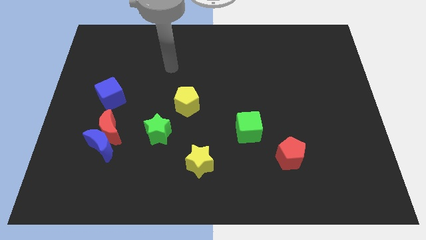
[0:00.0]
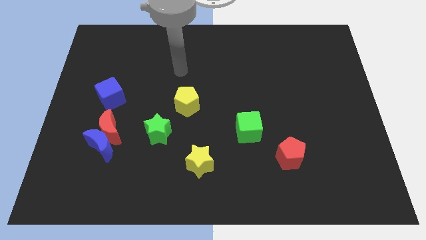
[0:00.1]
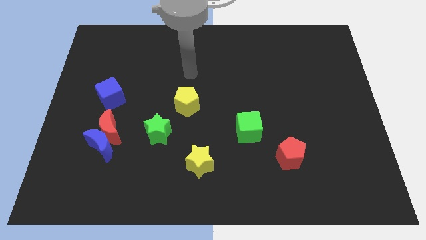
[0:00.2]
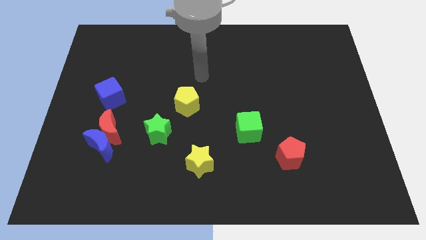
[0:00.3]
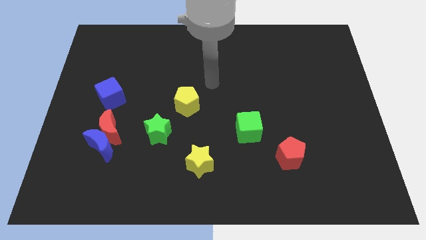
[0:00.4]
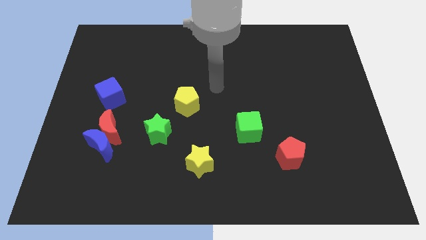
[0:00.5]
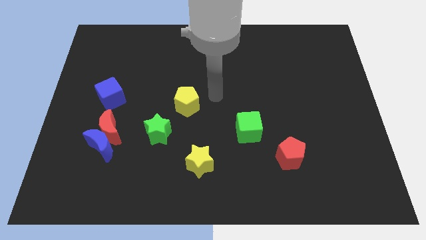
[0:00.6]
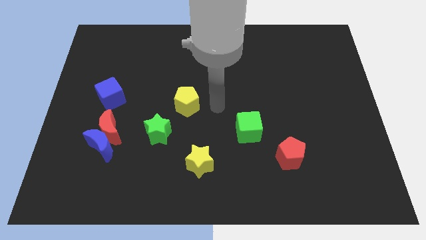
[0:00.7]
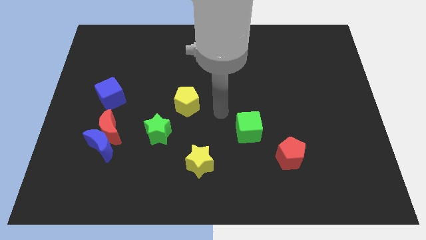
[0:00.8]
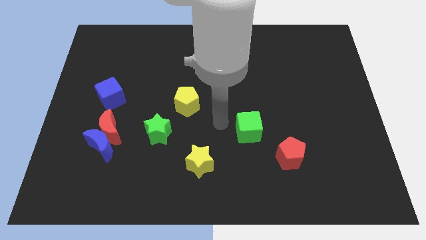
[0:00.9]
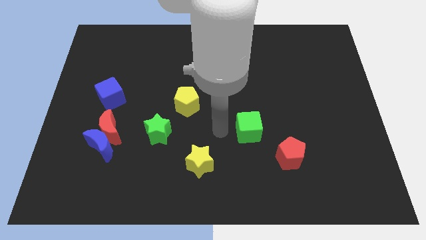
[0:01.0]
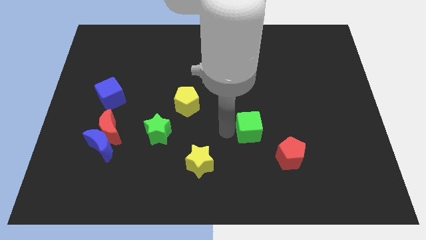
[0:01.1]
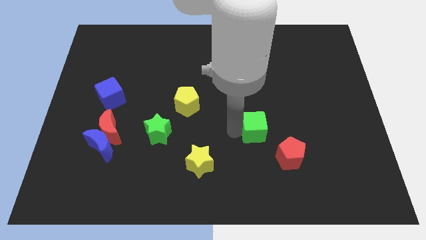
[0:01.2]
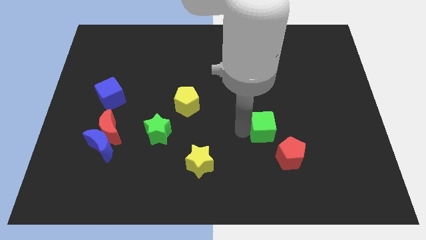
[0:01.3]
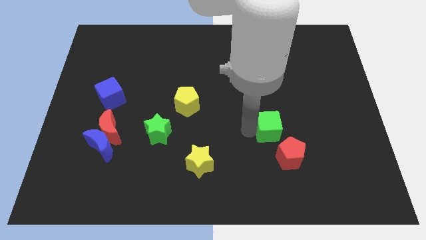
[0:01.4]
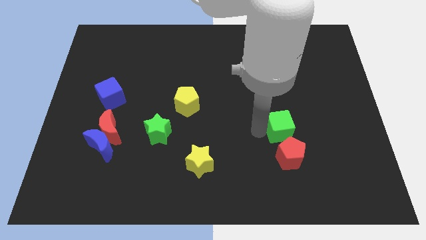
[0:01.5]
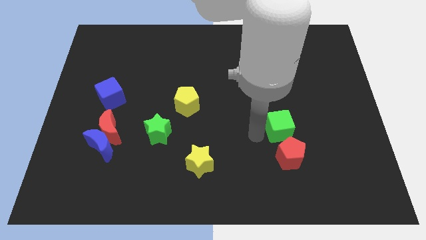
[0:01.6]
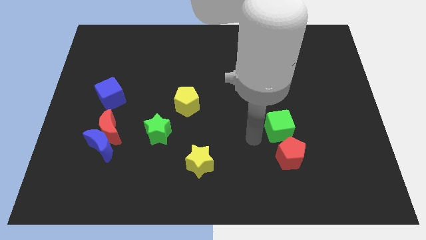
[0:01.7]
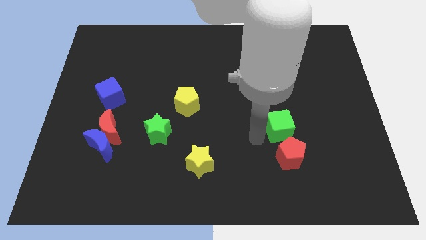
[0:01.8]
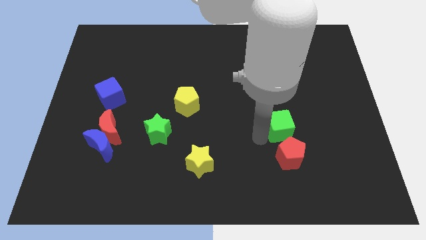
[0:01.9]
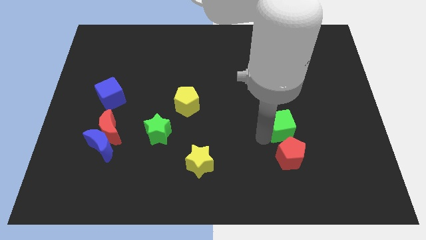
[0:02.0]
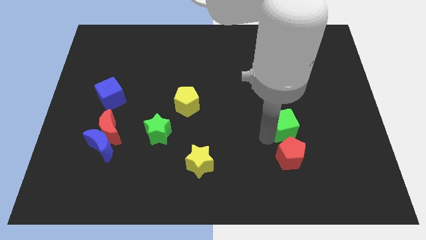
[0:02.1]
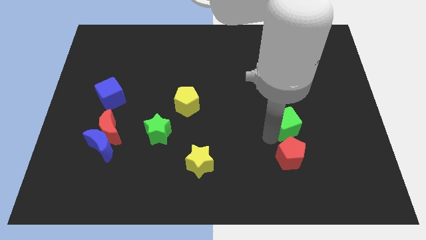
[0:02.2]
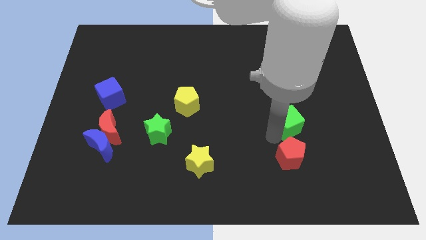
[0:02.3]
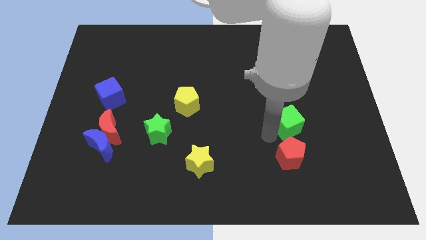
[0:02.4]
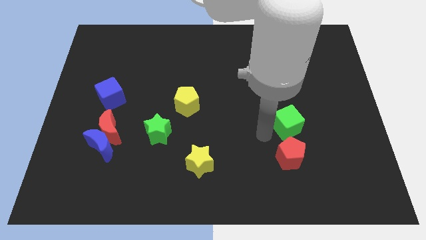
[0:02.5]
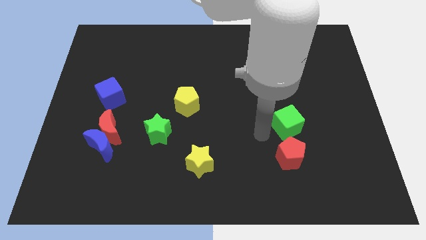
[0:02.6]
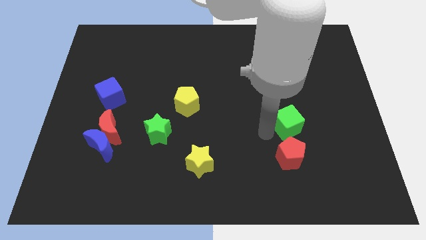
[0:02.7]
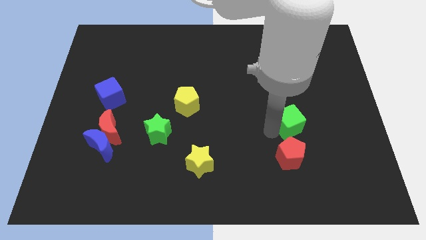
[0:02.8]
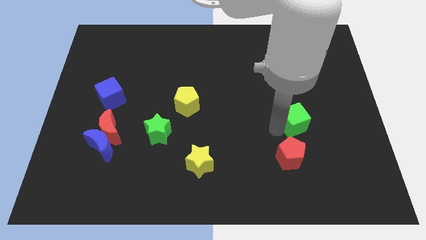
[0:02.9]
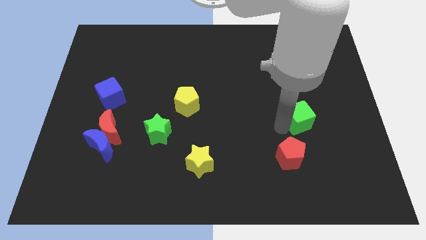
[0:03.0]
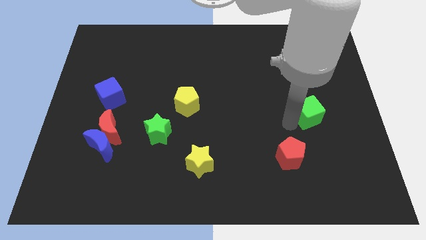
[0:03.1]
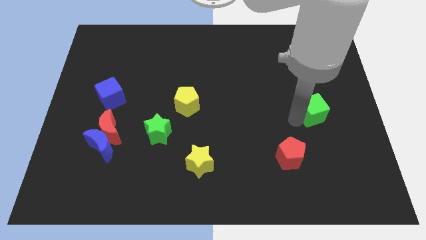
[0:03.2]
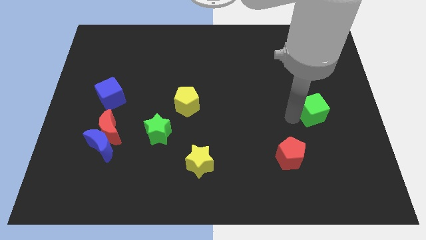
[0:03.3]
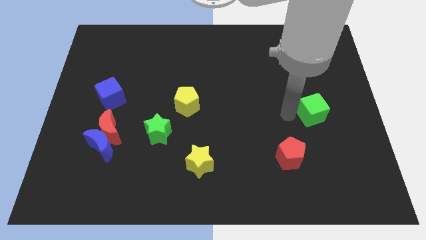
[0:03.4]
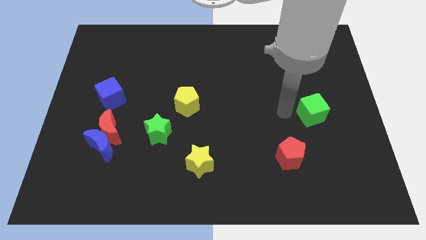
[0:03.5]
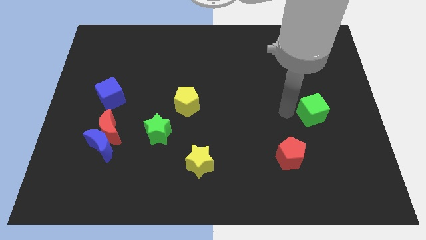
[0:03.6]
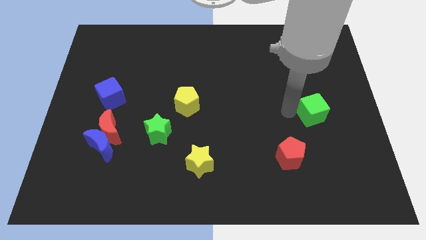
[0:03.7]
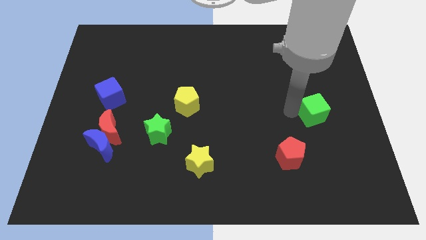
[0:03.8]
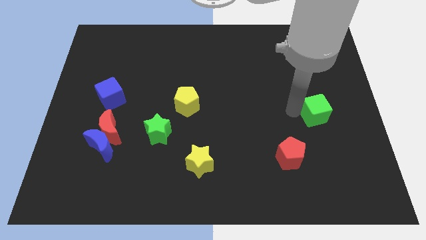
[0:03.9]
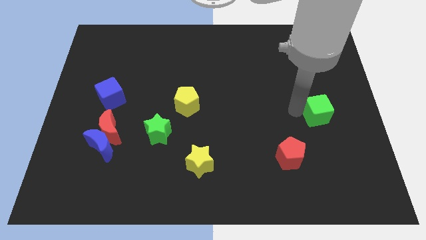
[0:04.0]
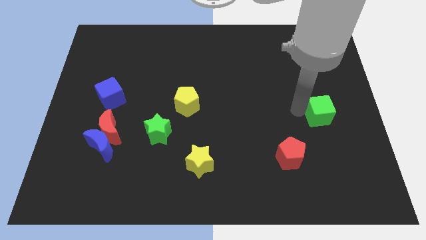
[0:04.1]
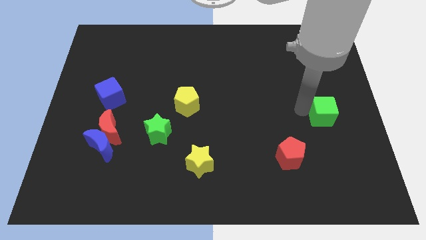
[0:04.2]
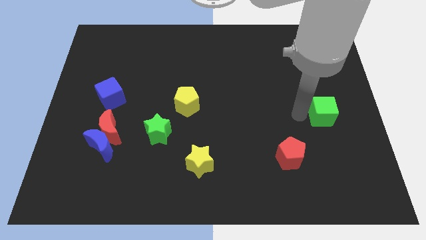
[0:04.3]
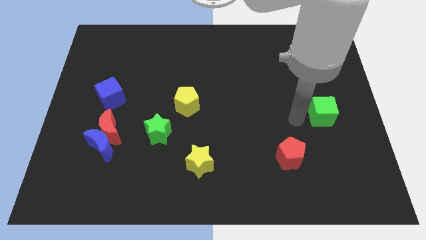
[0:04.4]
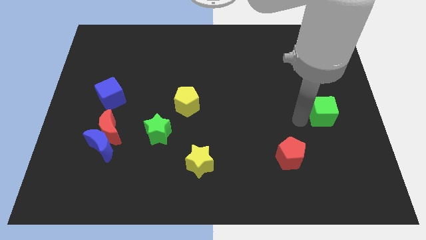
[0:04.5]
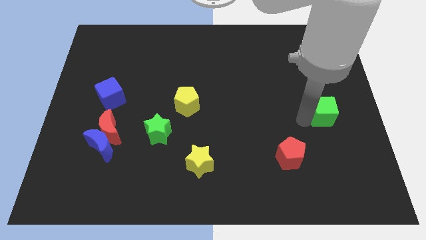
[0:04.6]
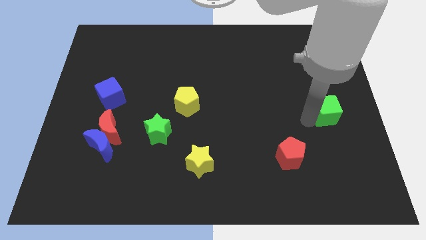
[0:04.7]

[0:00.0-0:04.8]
move the green cube to the right side

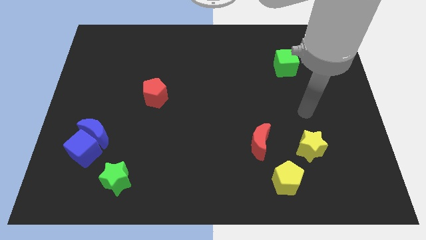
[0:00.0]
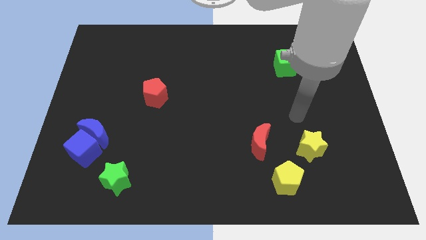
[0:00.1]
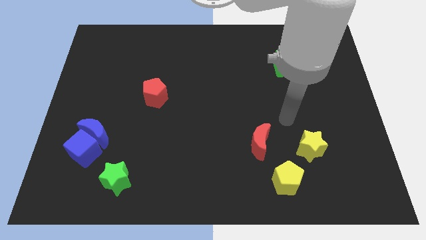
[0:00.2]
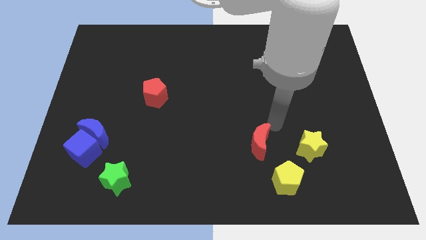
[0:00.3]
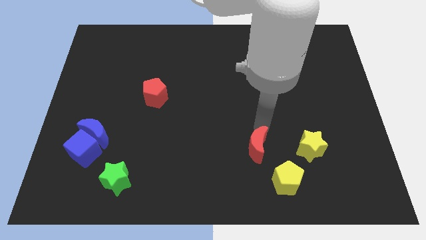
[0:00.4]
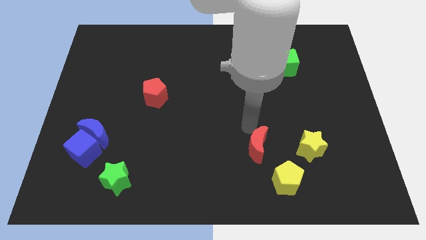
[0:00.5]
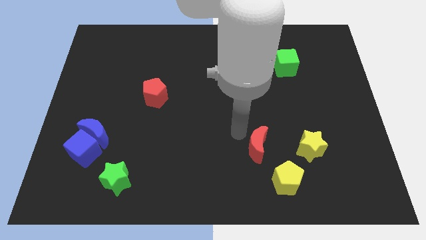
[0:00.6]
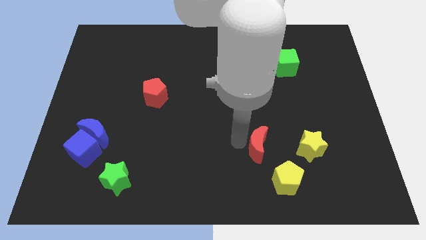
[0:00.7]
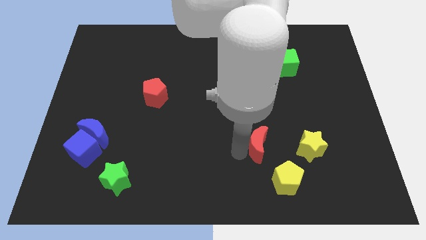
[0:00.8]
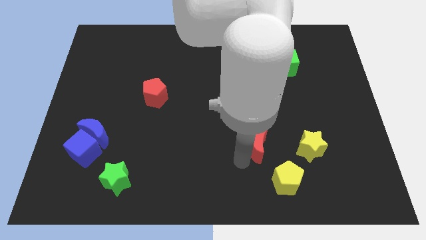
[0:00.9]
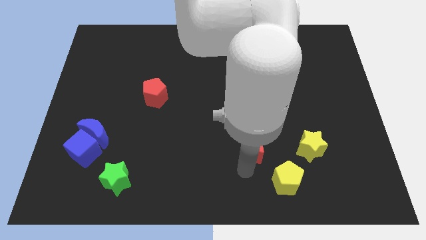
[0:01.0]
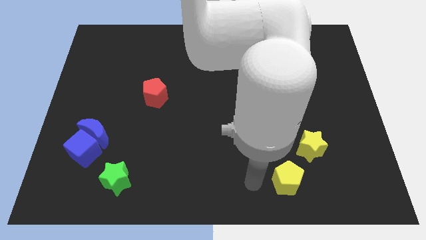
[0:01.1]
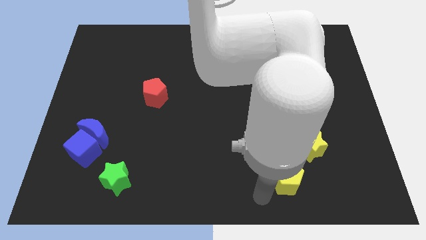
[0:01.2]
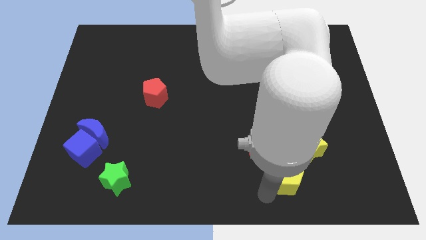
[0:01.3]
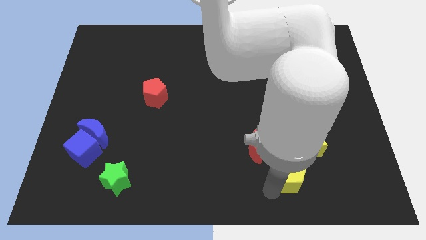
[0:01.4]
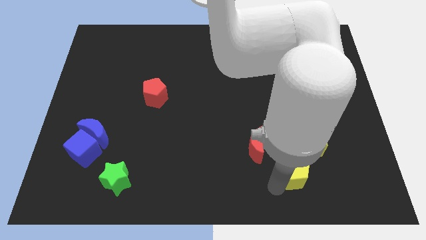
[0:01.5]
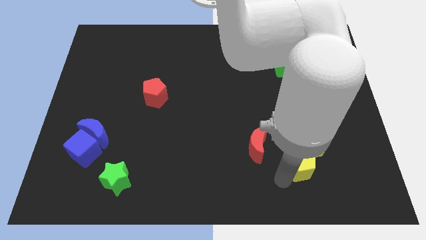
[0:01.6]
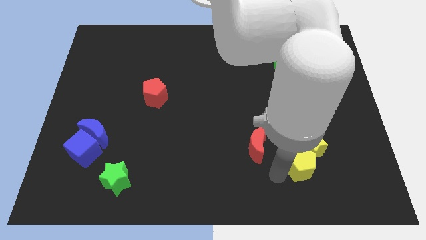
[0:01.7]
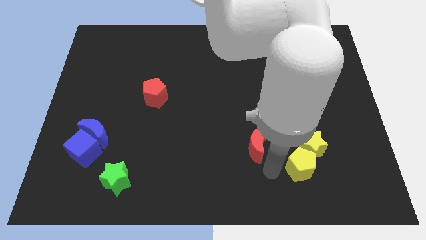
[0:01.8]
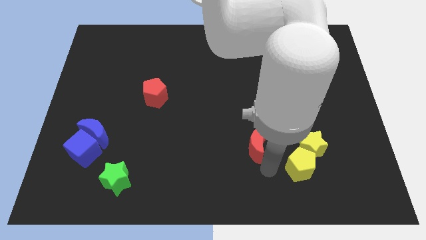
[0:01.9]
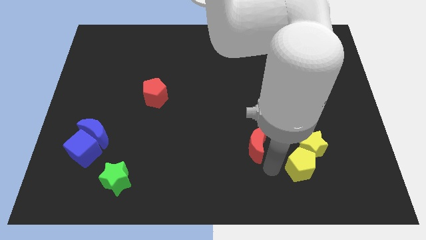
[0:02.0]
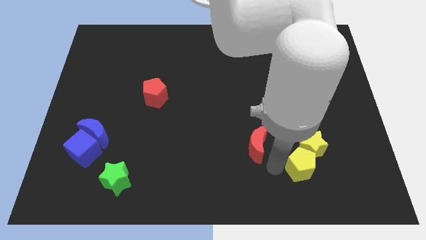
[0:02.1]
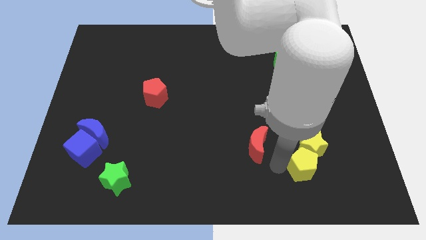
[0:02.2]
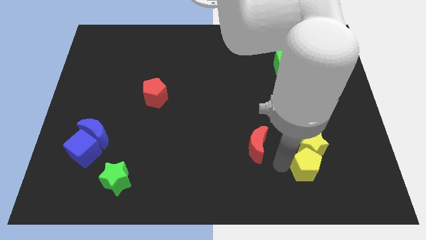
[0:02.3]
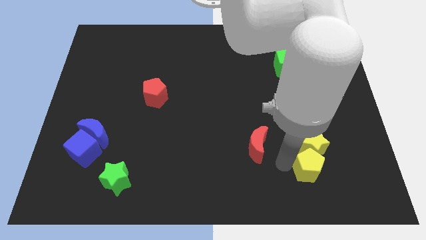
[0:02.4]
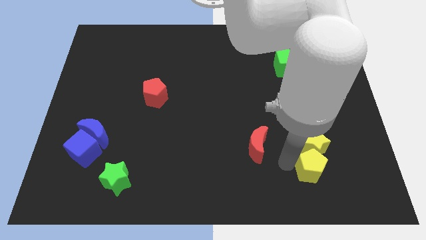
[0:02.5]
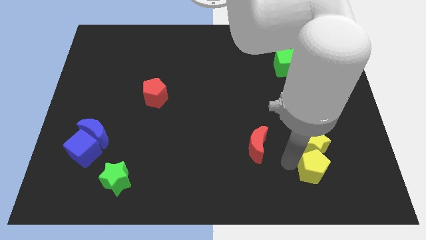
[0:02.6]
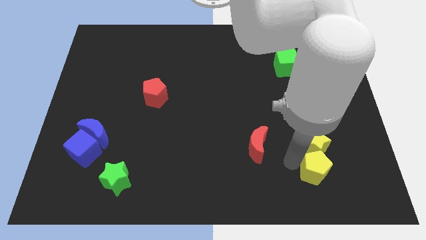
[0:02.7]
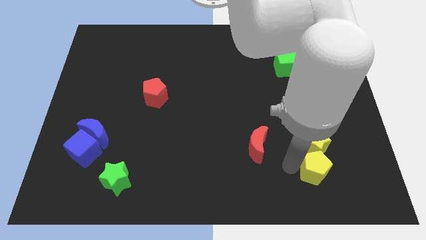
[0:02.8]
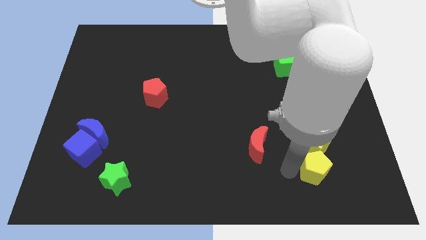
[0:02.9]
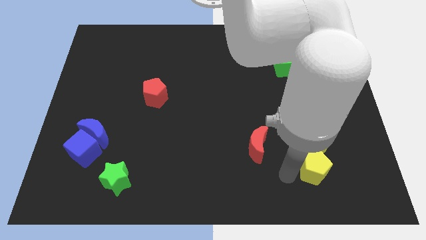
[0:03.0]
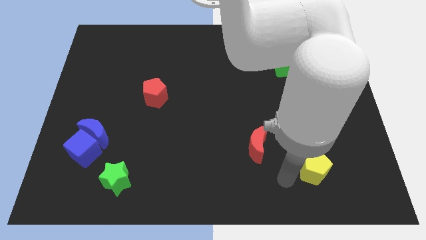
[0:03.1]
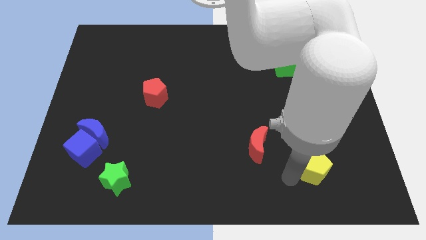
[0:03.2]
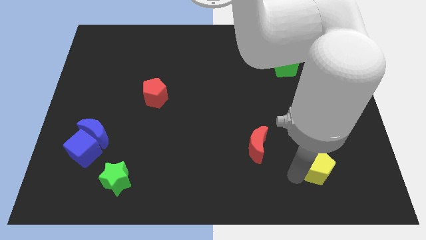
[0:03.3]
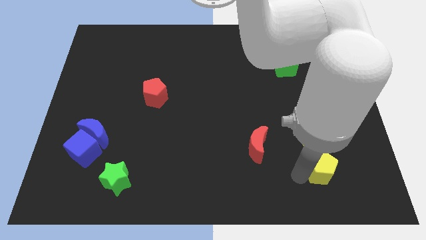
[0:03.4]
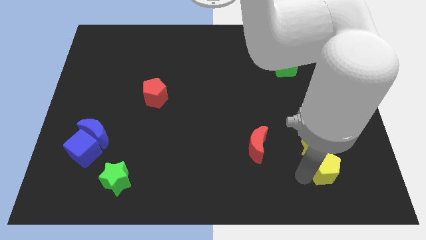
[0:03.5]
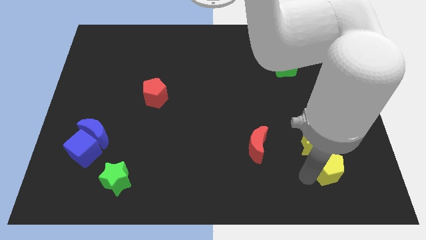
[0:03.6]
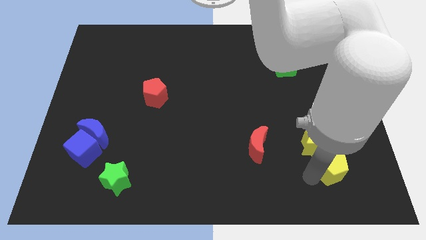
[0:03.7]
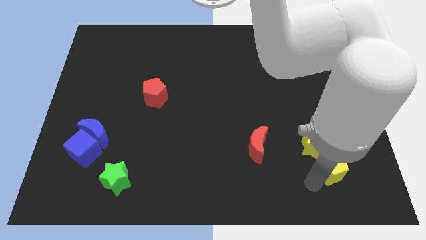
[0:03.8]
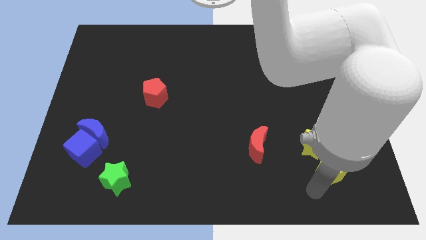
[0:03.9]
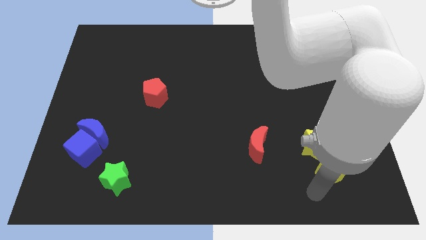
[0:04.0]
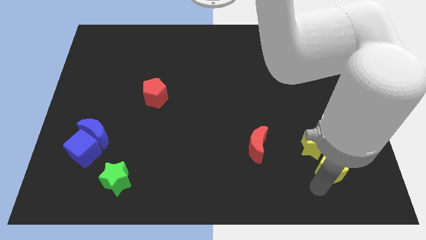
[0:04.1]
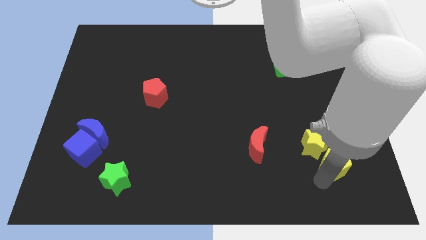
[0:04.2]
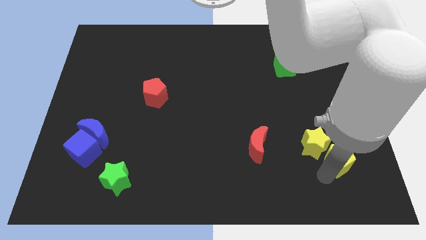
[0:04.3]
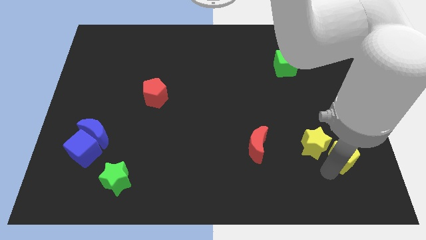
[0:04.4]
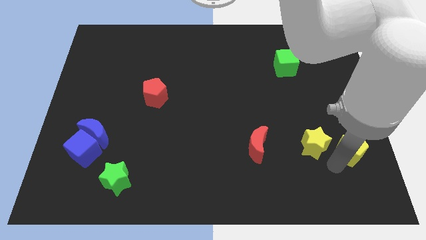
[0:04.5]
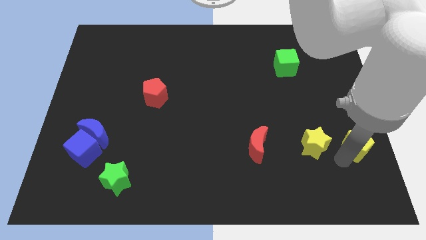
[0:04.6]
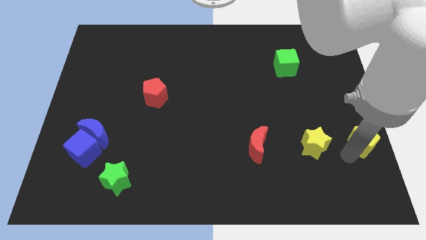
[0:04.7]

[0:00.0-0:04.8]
push the yellow pentagon to the center right
